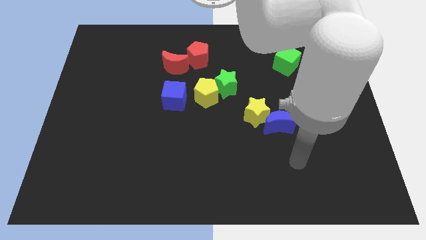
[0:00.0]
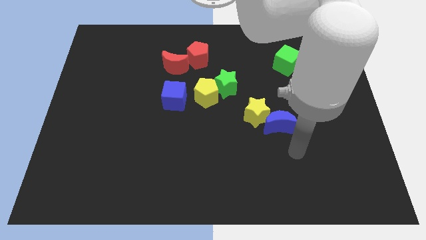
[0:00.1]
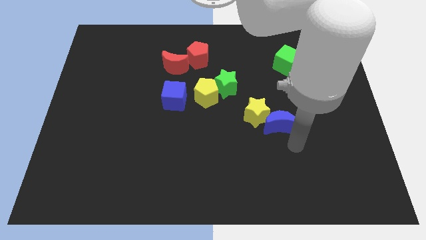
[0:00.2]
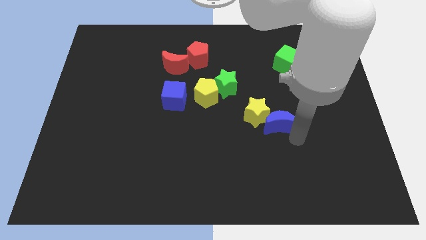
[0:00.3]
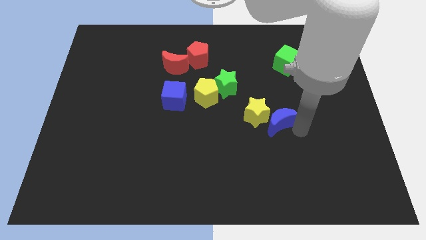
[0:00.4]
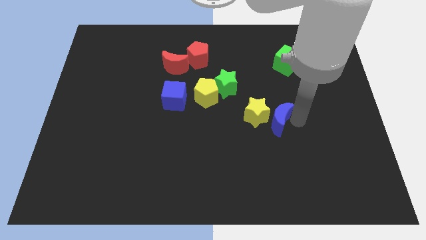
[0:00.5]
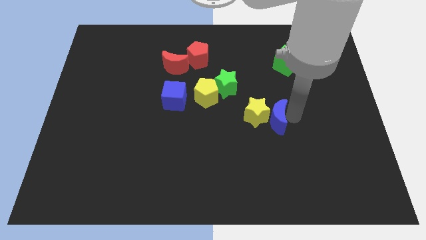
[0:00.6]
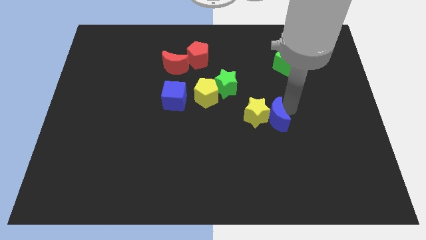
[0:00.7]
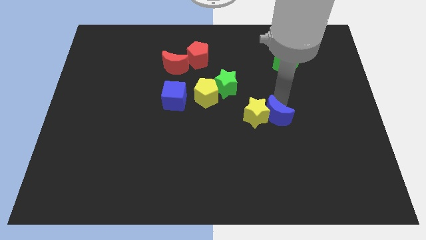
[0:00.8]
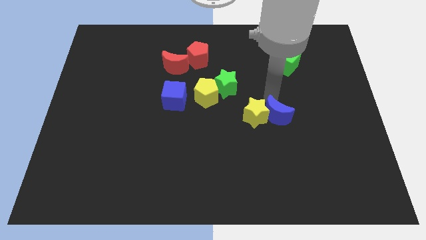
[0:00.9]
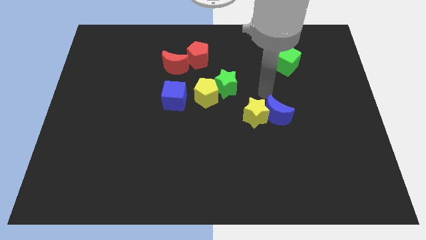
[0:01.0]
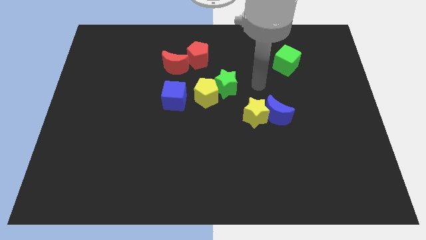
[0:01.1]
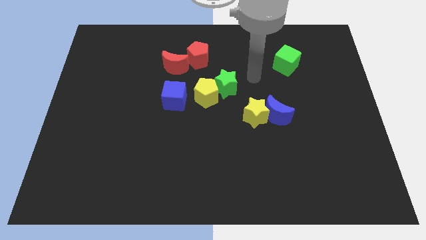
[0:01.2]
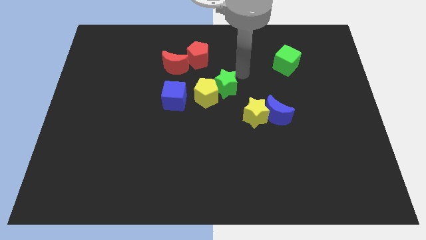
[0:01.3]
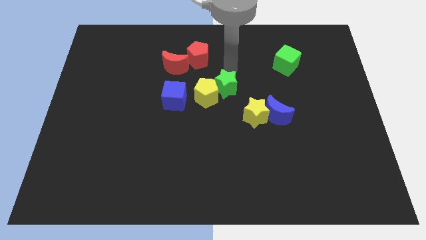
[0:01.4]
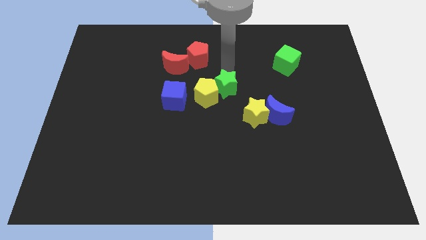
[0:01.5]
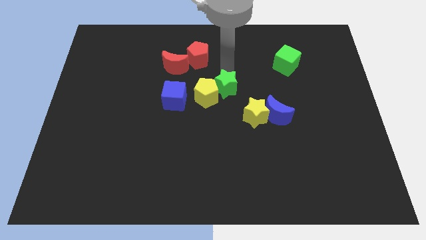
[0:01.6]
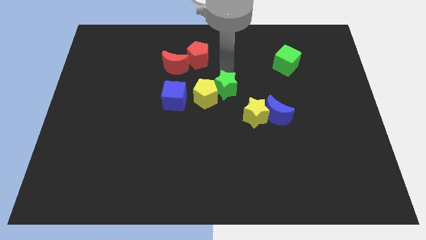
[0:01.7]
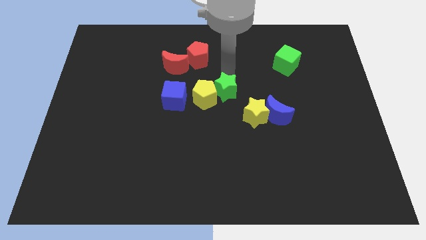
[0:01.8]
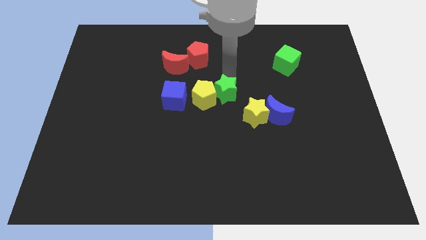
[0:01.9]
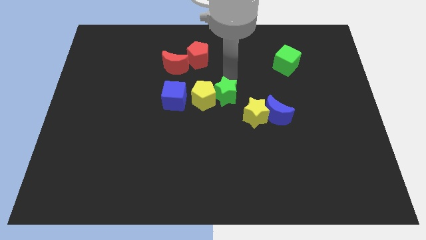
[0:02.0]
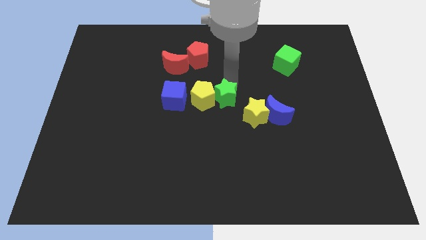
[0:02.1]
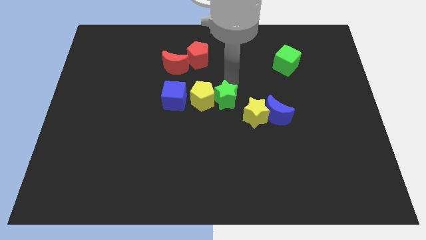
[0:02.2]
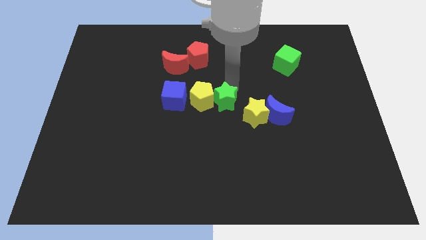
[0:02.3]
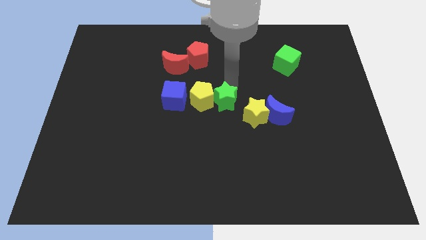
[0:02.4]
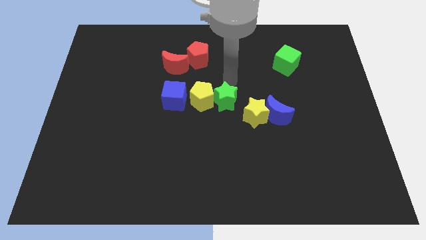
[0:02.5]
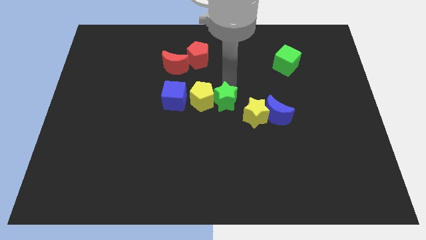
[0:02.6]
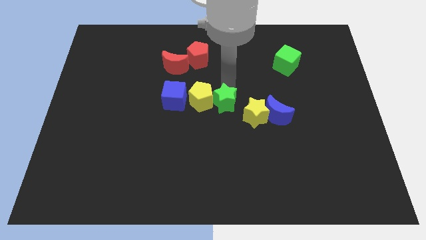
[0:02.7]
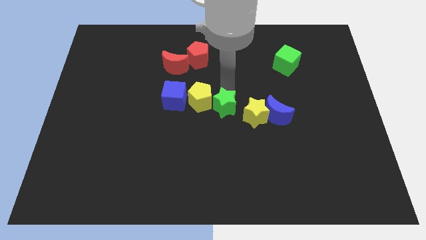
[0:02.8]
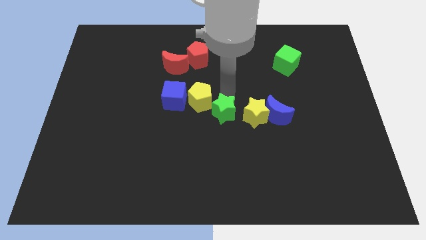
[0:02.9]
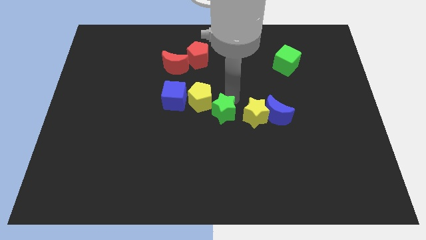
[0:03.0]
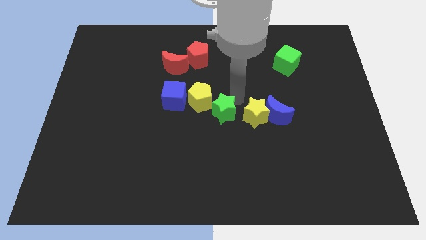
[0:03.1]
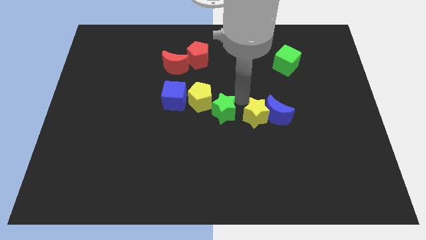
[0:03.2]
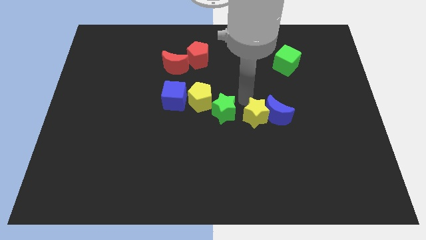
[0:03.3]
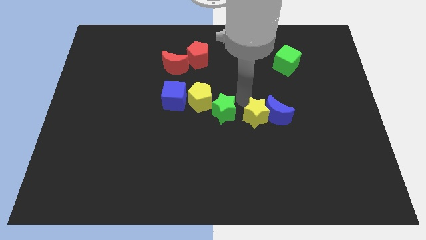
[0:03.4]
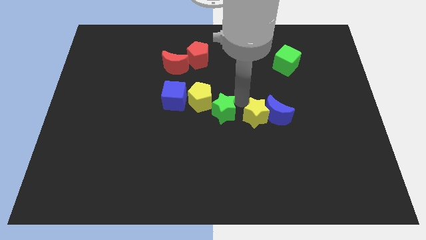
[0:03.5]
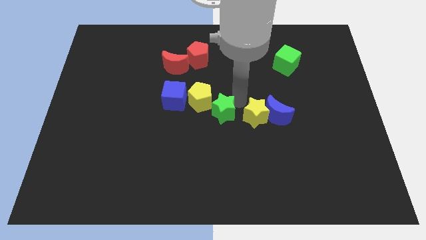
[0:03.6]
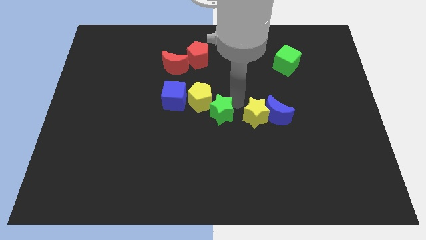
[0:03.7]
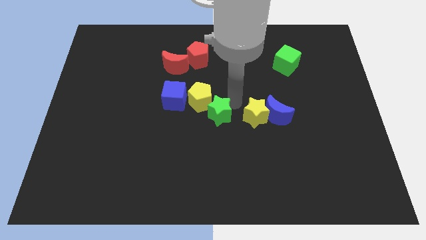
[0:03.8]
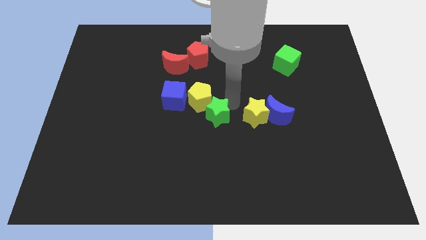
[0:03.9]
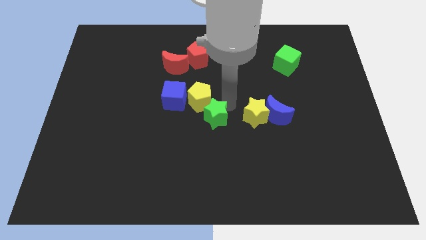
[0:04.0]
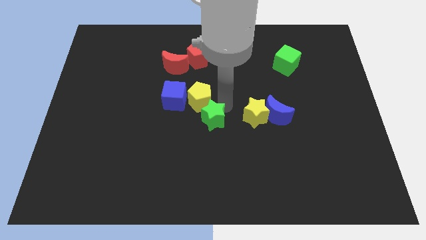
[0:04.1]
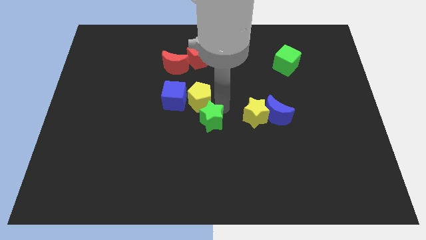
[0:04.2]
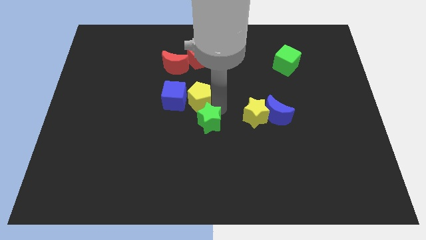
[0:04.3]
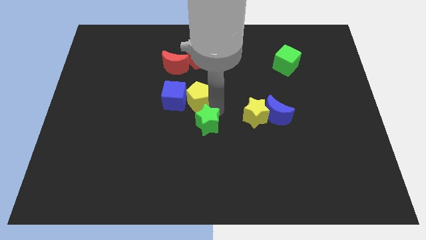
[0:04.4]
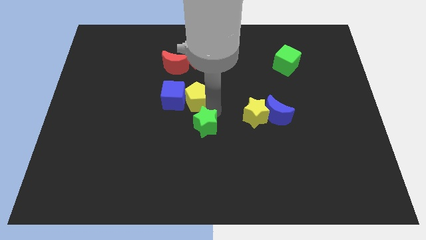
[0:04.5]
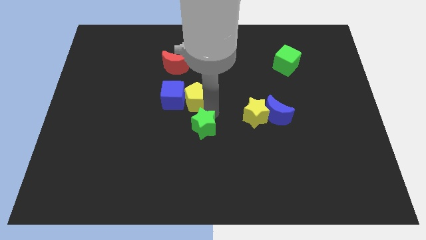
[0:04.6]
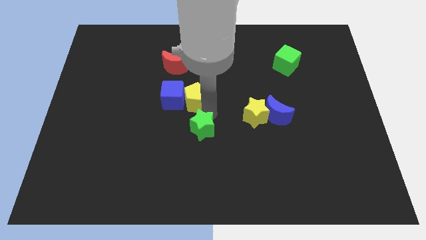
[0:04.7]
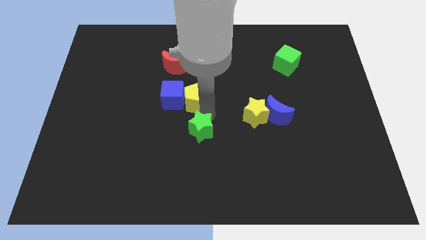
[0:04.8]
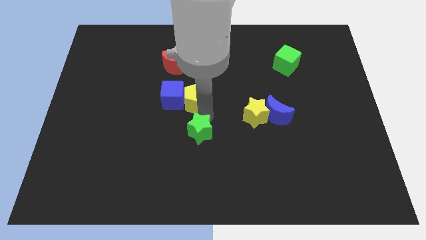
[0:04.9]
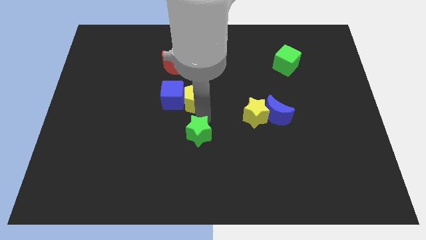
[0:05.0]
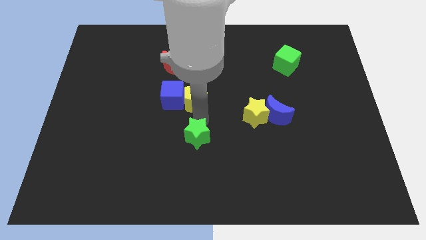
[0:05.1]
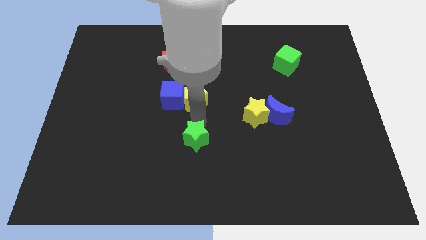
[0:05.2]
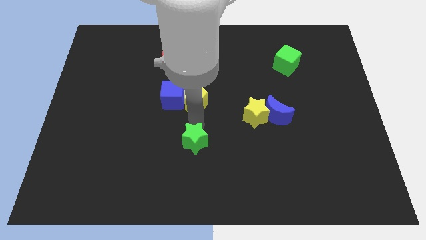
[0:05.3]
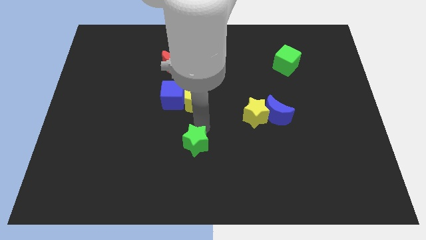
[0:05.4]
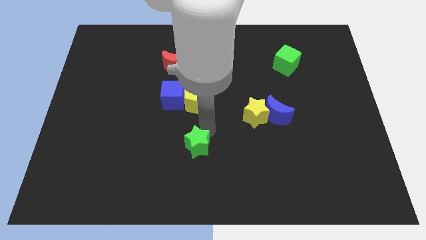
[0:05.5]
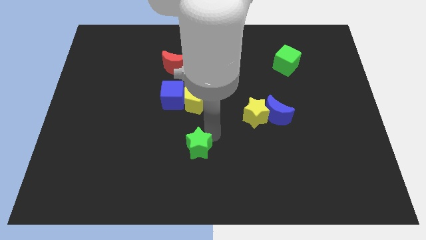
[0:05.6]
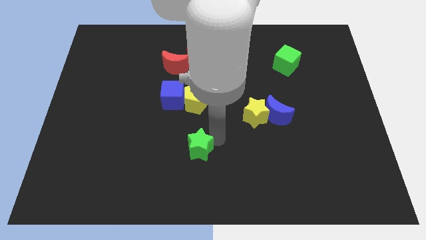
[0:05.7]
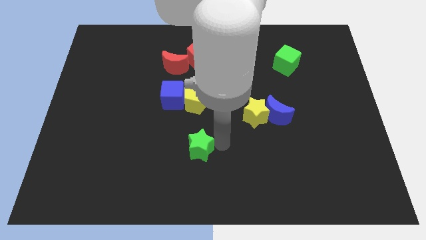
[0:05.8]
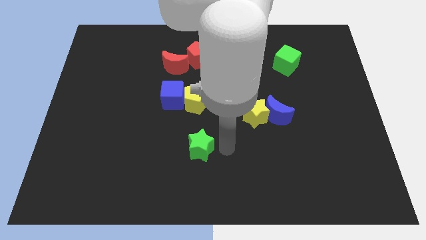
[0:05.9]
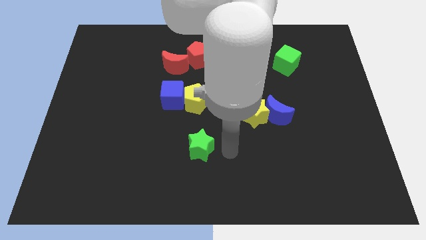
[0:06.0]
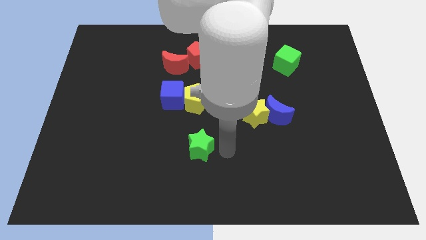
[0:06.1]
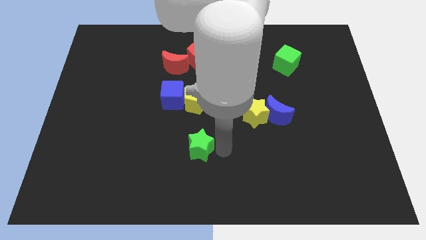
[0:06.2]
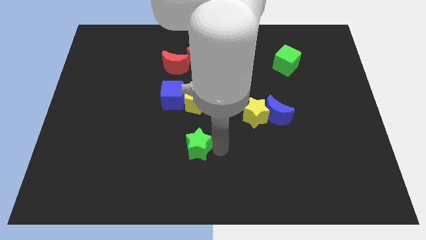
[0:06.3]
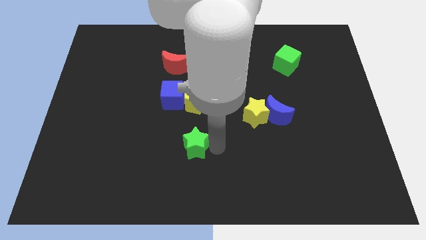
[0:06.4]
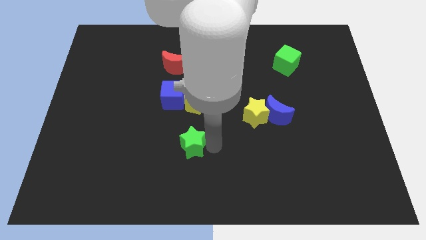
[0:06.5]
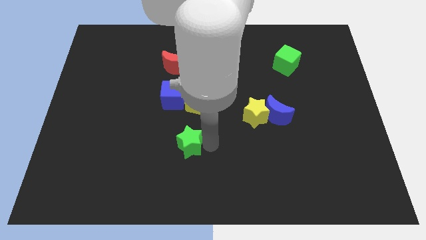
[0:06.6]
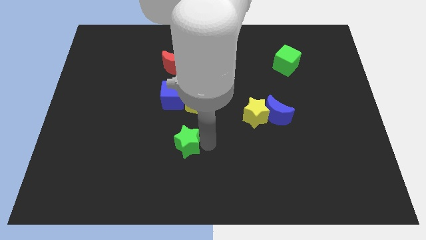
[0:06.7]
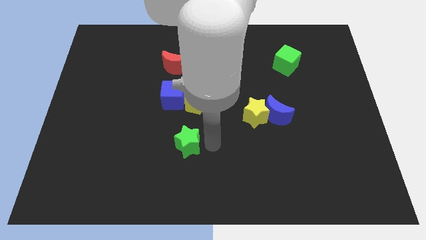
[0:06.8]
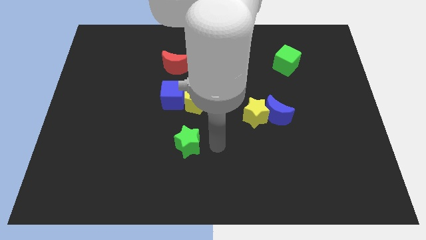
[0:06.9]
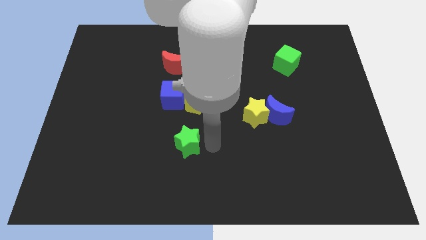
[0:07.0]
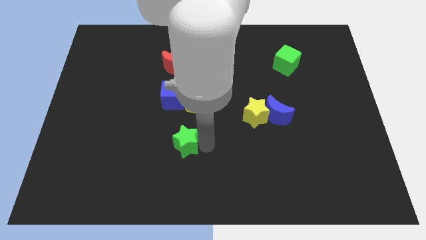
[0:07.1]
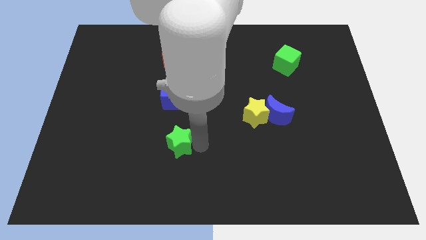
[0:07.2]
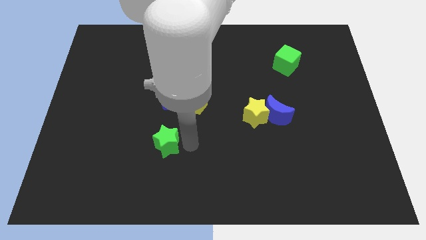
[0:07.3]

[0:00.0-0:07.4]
push the green star downwards and then left

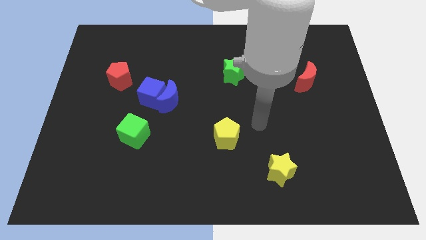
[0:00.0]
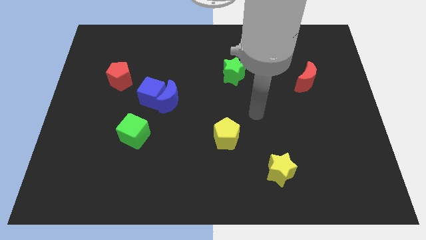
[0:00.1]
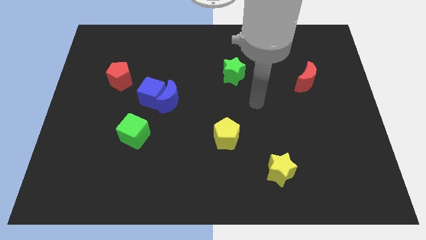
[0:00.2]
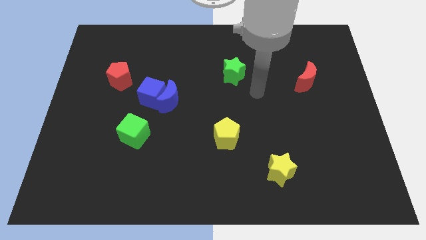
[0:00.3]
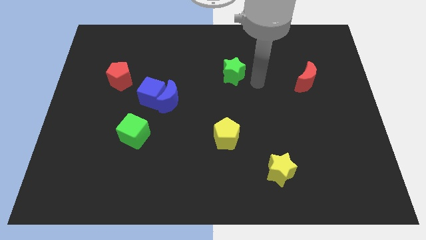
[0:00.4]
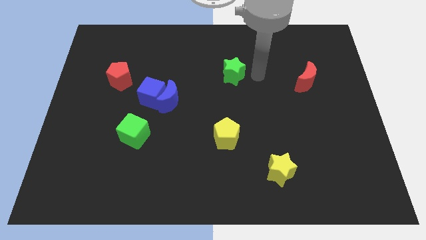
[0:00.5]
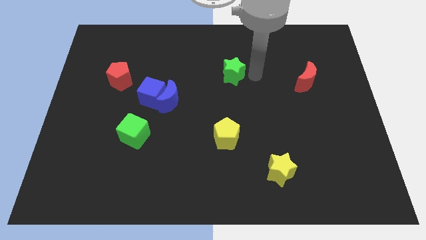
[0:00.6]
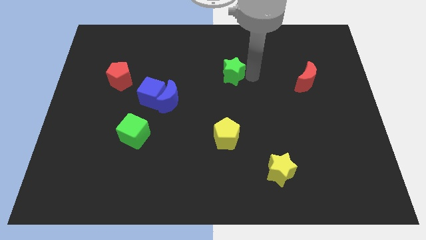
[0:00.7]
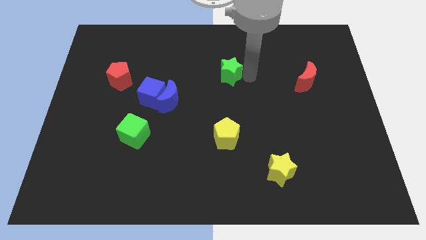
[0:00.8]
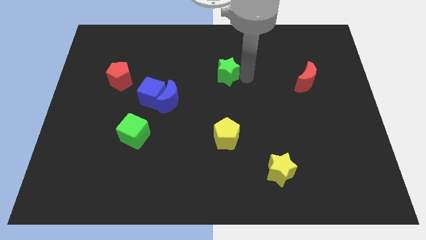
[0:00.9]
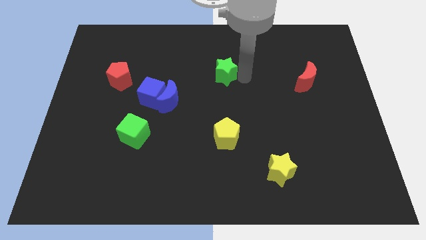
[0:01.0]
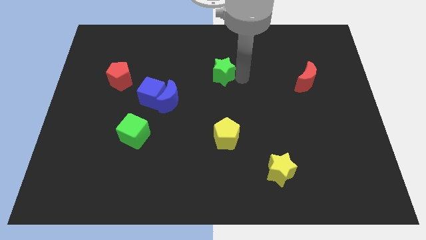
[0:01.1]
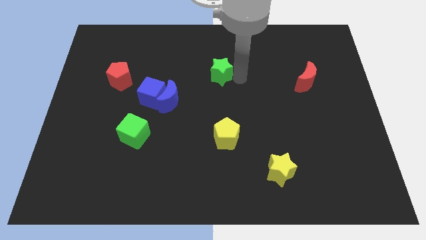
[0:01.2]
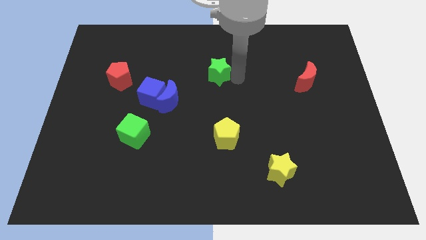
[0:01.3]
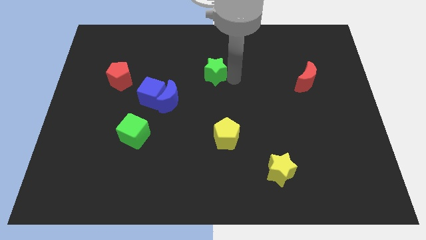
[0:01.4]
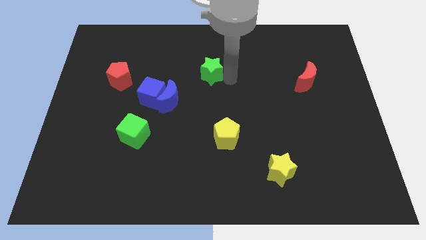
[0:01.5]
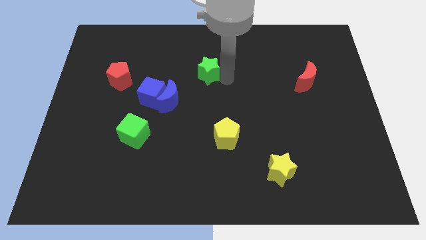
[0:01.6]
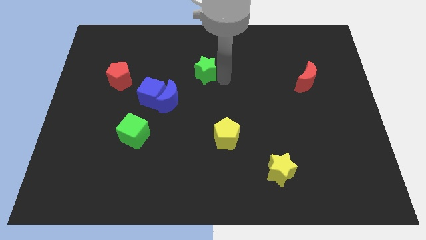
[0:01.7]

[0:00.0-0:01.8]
move the green star a little to the left
